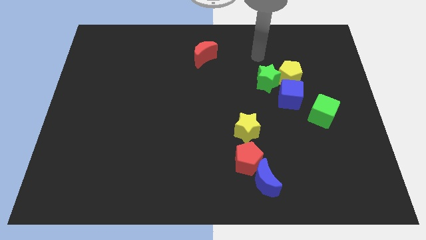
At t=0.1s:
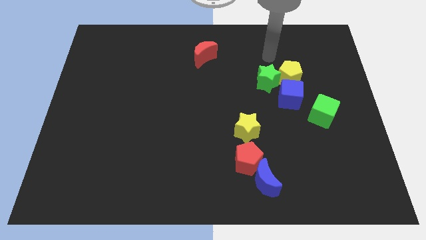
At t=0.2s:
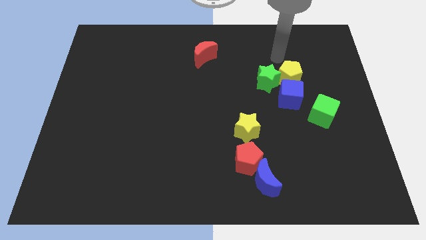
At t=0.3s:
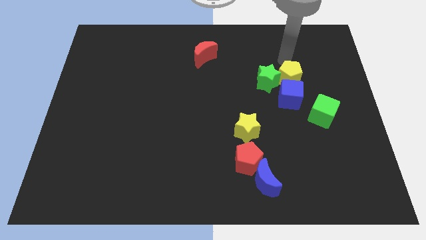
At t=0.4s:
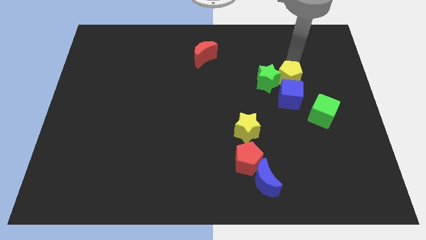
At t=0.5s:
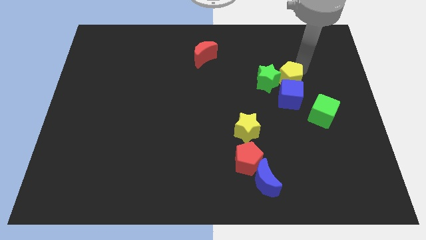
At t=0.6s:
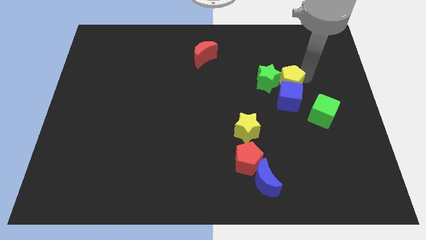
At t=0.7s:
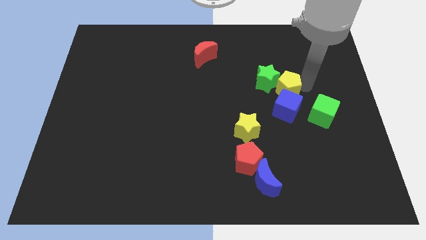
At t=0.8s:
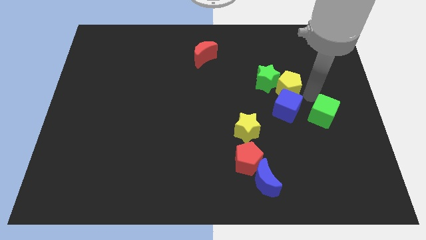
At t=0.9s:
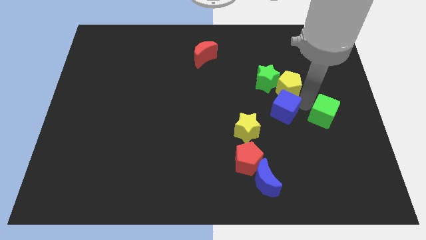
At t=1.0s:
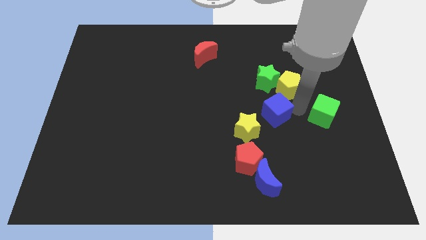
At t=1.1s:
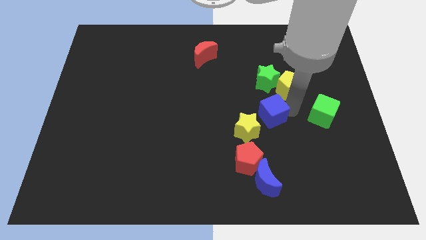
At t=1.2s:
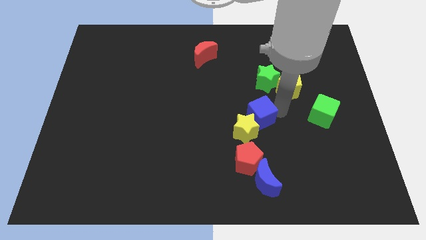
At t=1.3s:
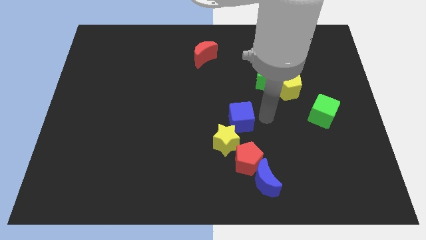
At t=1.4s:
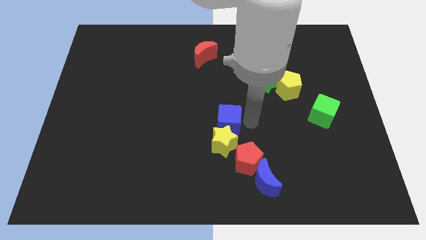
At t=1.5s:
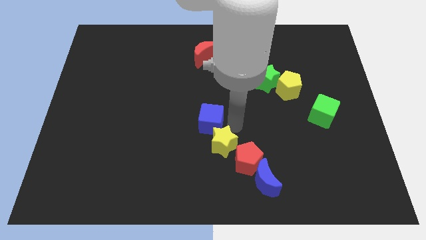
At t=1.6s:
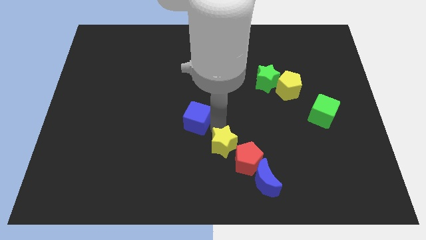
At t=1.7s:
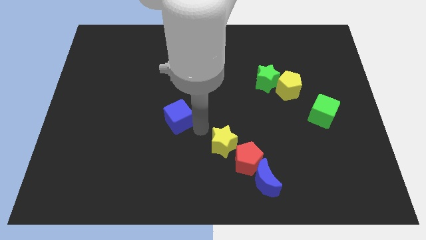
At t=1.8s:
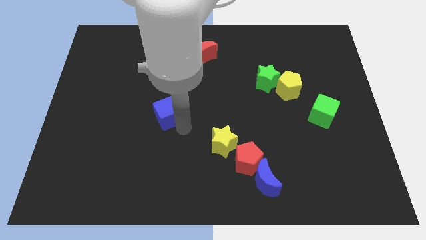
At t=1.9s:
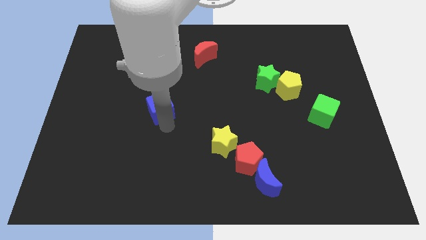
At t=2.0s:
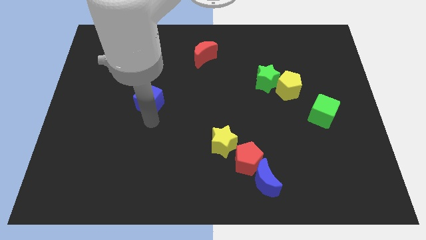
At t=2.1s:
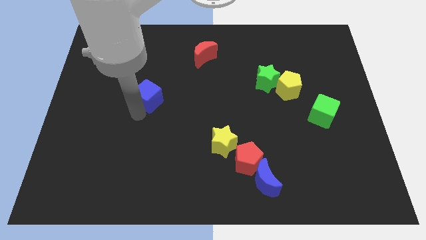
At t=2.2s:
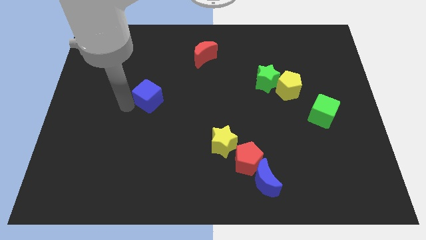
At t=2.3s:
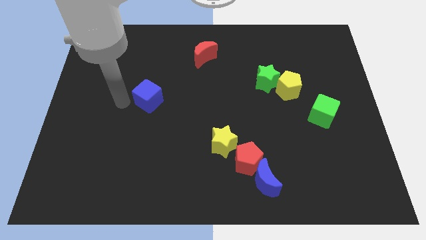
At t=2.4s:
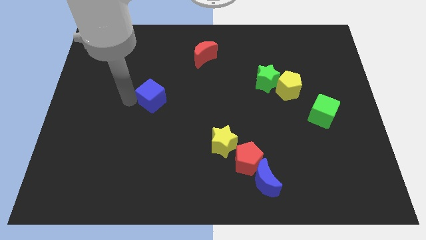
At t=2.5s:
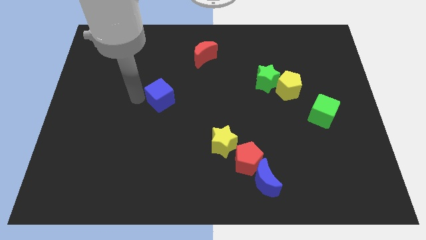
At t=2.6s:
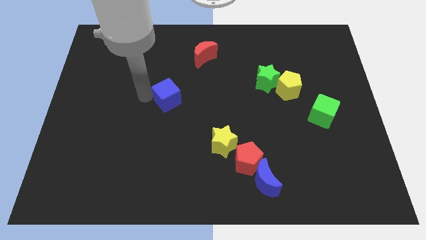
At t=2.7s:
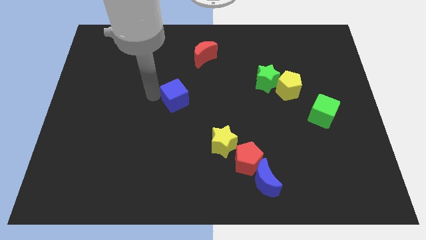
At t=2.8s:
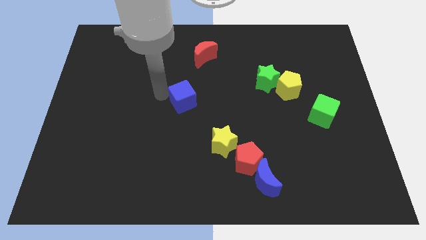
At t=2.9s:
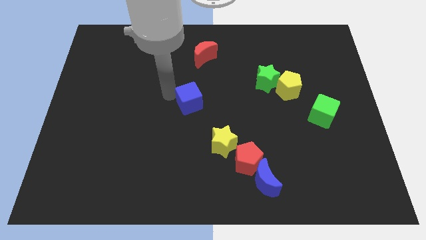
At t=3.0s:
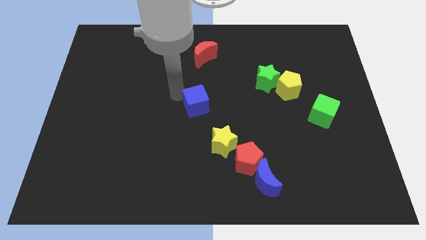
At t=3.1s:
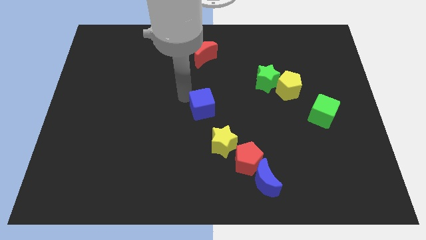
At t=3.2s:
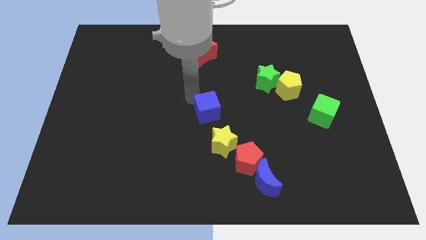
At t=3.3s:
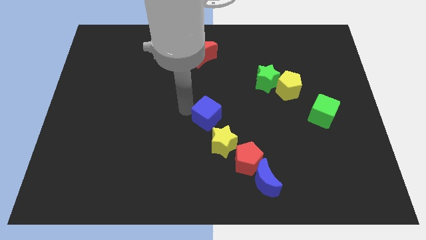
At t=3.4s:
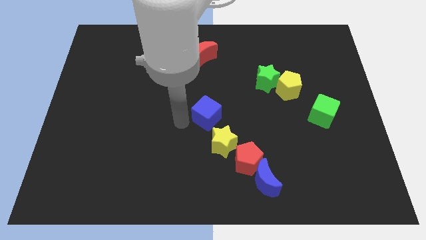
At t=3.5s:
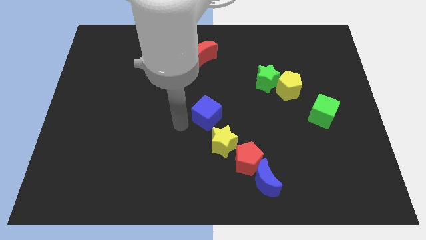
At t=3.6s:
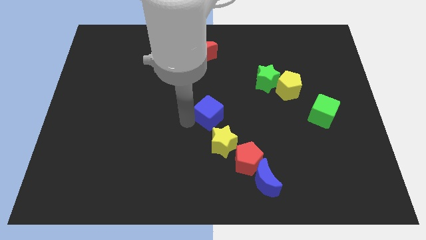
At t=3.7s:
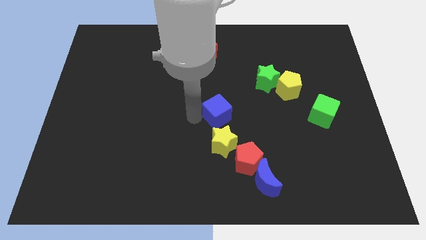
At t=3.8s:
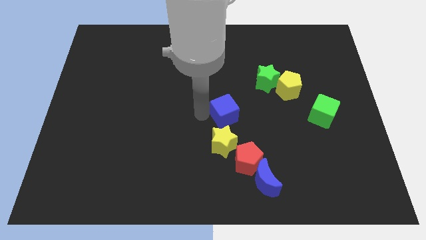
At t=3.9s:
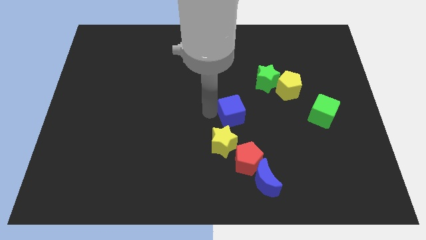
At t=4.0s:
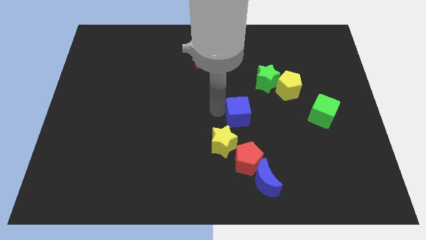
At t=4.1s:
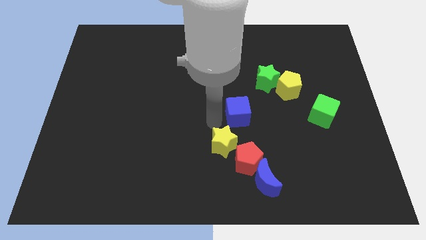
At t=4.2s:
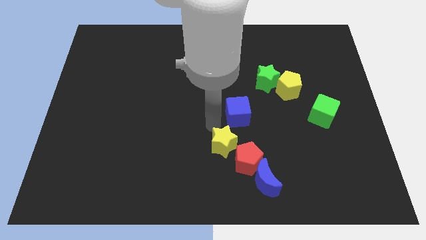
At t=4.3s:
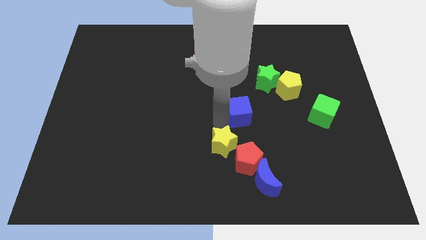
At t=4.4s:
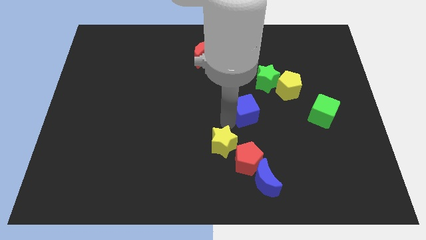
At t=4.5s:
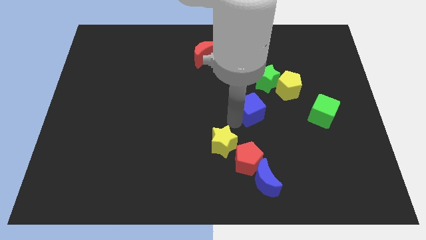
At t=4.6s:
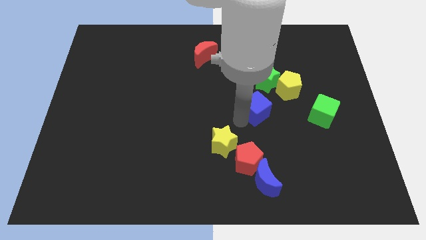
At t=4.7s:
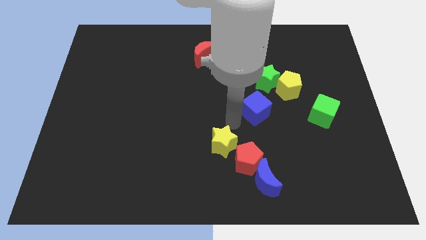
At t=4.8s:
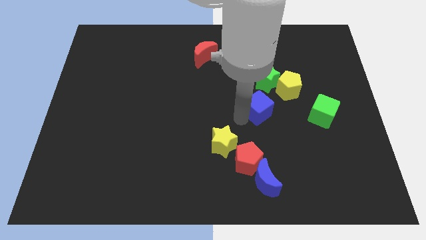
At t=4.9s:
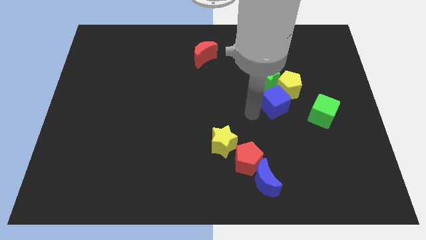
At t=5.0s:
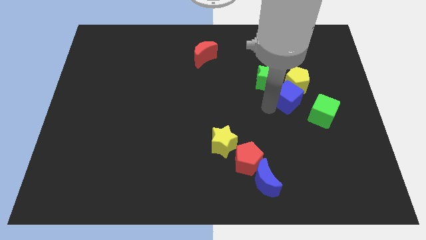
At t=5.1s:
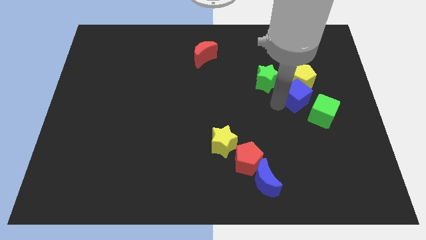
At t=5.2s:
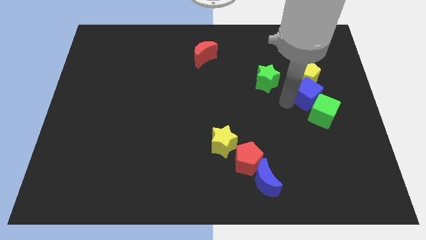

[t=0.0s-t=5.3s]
put the blue cube to the top of the green cube

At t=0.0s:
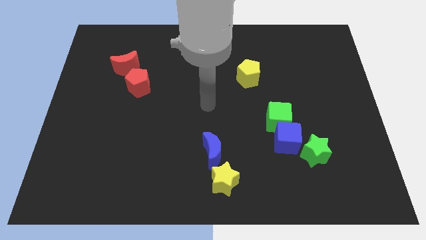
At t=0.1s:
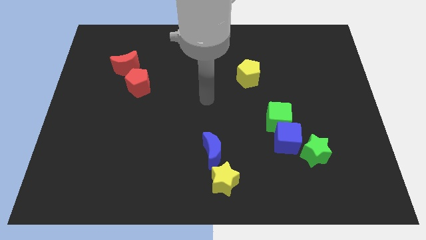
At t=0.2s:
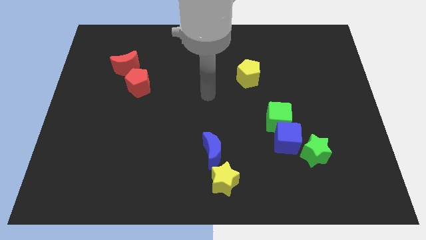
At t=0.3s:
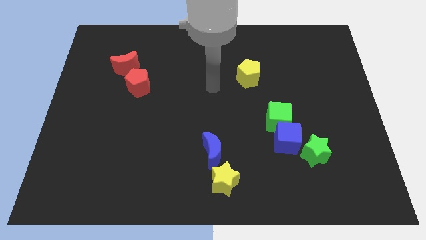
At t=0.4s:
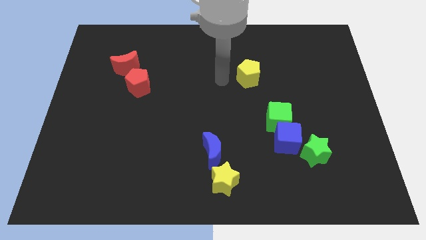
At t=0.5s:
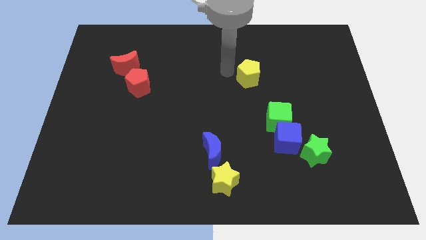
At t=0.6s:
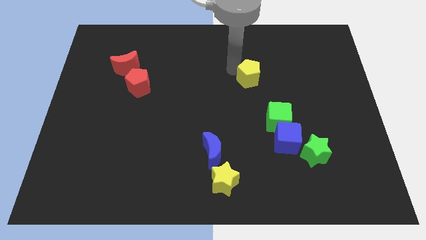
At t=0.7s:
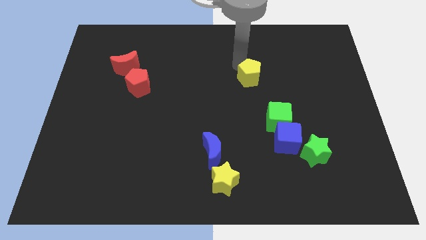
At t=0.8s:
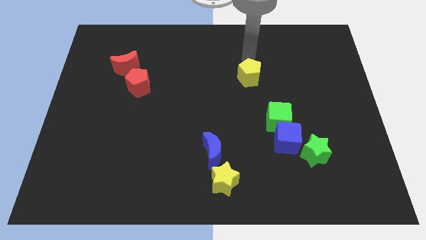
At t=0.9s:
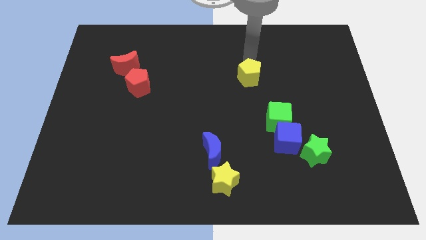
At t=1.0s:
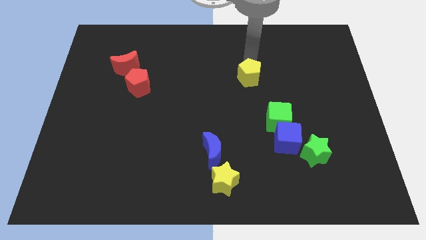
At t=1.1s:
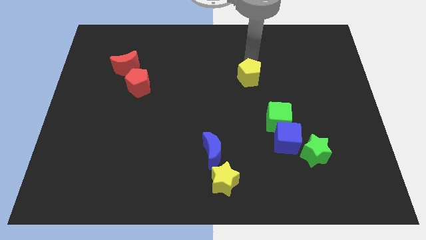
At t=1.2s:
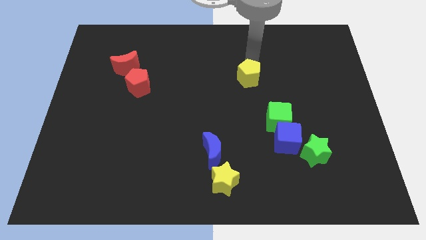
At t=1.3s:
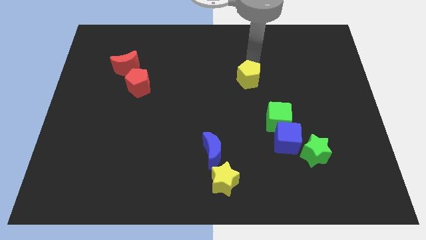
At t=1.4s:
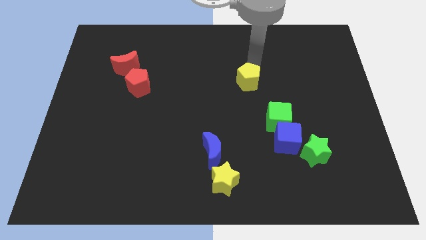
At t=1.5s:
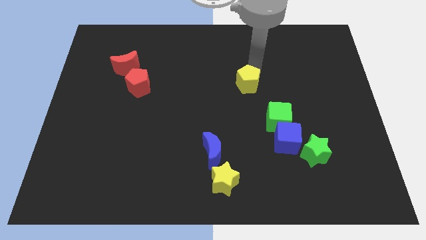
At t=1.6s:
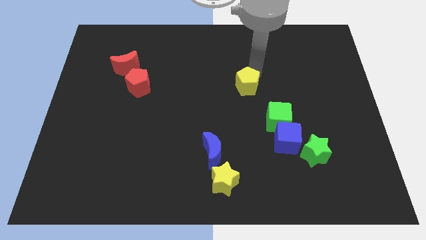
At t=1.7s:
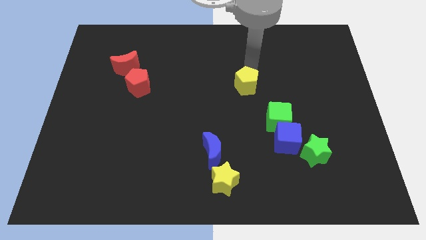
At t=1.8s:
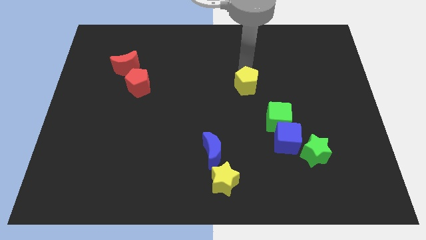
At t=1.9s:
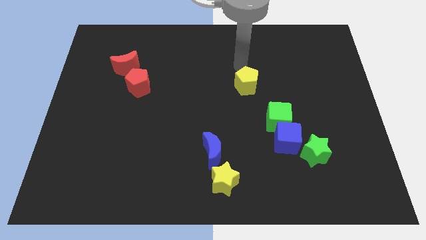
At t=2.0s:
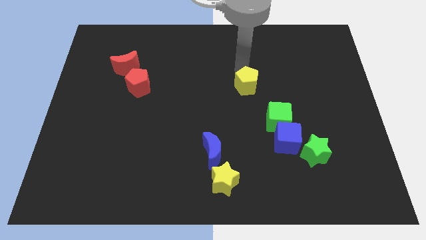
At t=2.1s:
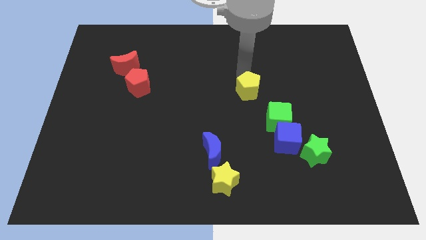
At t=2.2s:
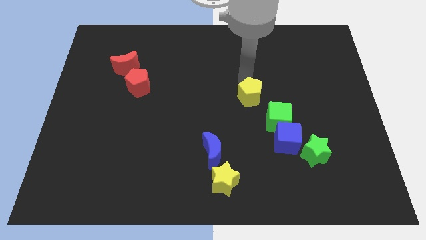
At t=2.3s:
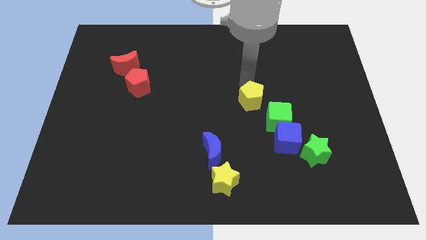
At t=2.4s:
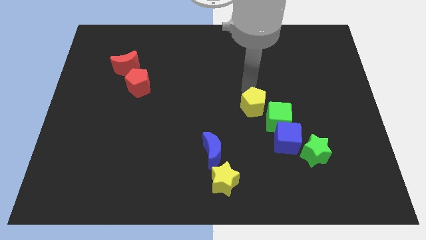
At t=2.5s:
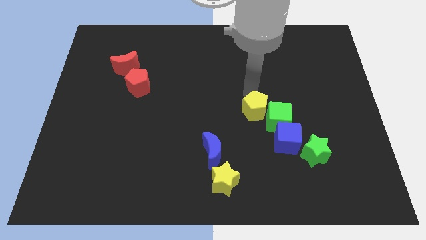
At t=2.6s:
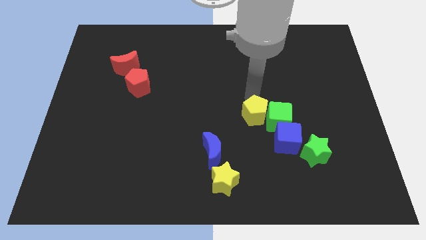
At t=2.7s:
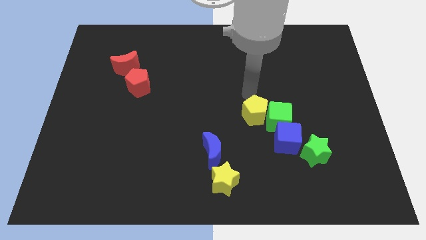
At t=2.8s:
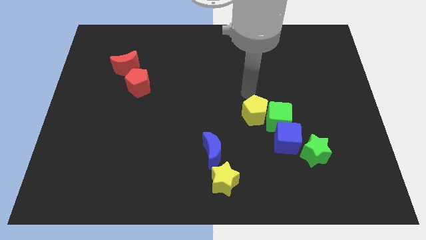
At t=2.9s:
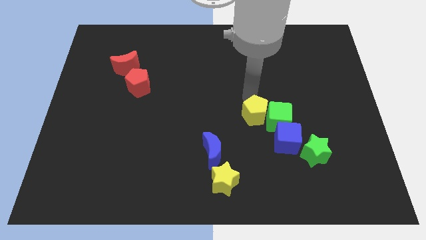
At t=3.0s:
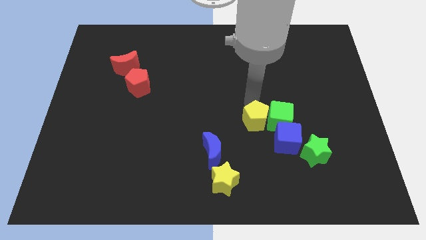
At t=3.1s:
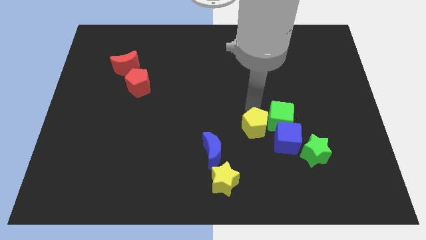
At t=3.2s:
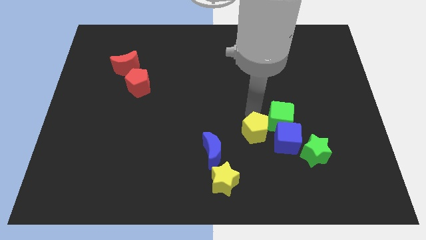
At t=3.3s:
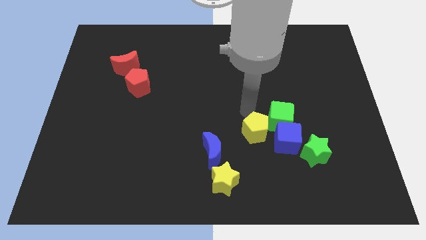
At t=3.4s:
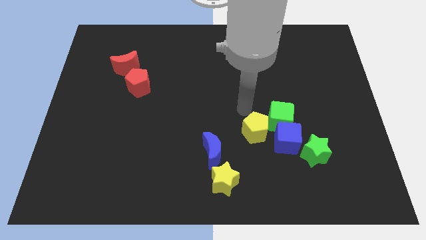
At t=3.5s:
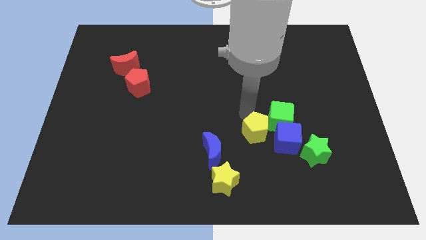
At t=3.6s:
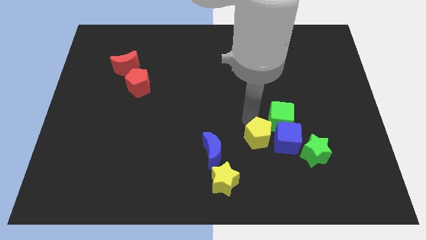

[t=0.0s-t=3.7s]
move the yellow pentagon to the left of the green star
